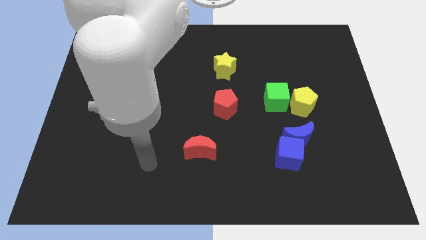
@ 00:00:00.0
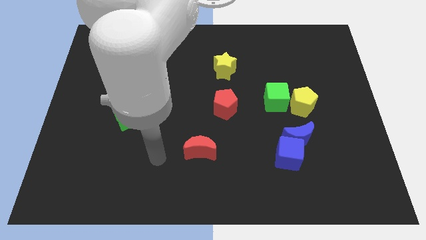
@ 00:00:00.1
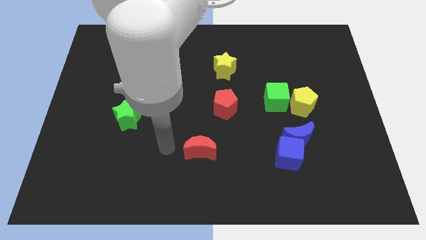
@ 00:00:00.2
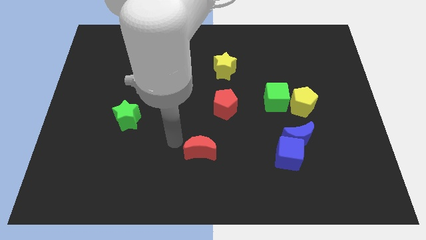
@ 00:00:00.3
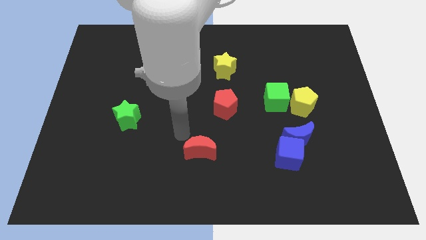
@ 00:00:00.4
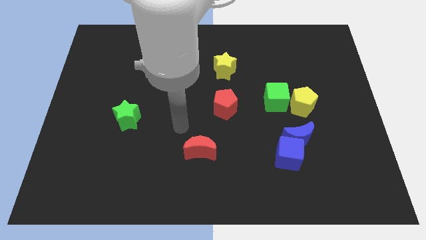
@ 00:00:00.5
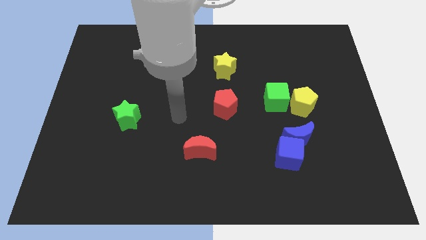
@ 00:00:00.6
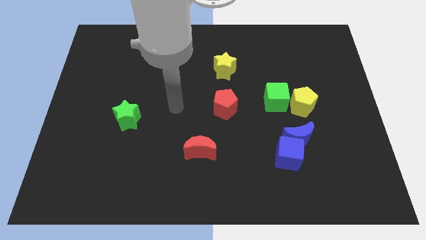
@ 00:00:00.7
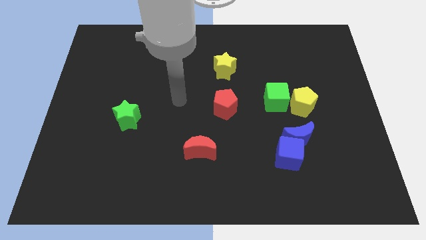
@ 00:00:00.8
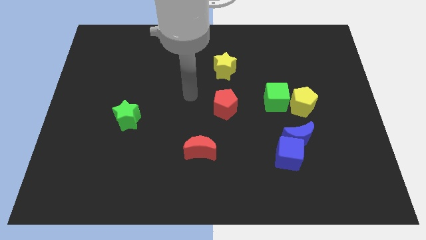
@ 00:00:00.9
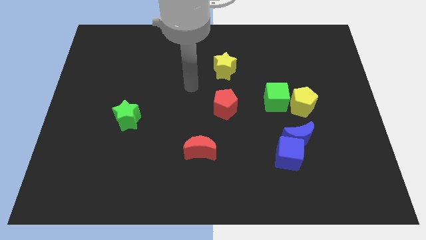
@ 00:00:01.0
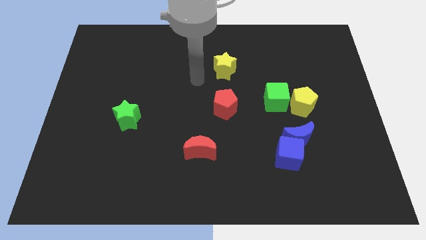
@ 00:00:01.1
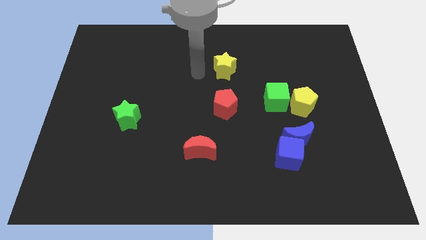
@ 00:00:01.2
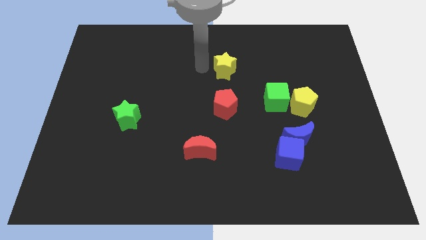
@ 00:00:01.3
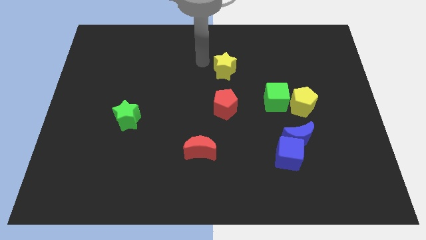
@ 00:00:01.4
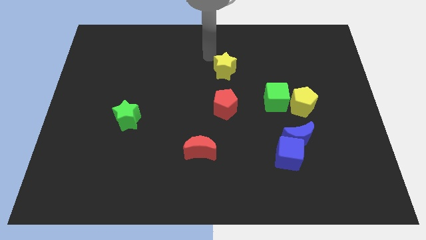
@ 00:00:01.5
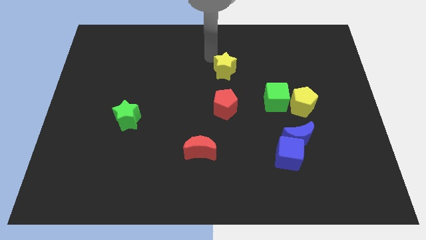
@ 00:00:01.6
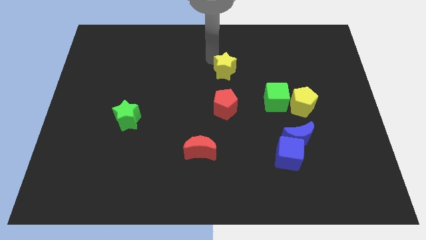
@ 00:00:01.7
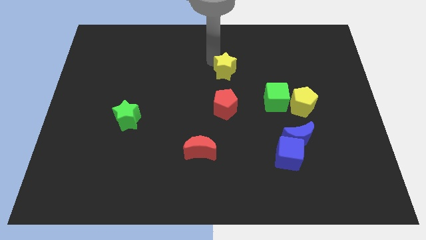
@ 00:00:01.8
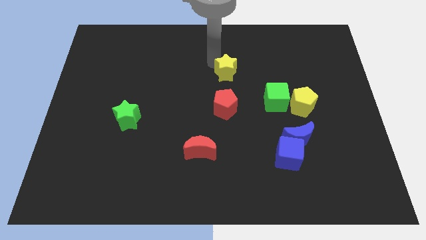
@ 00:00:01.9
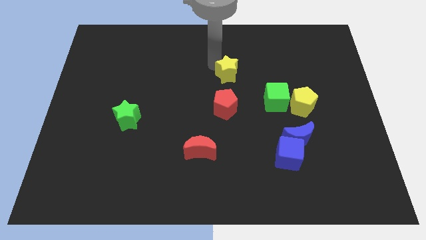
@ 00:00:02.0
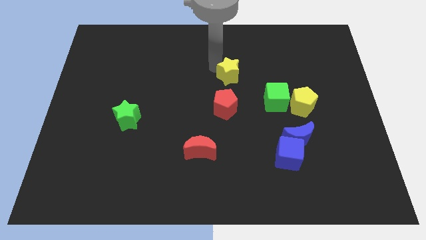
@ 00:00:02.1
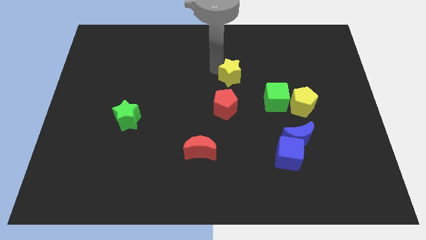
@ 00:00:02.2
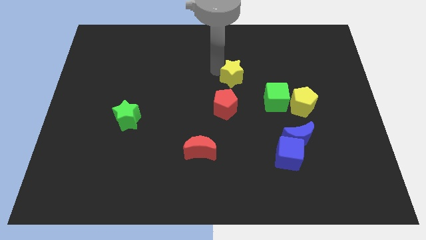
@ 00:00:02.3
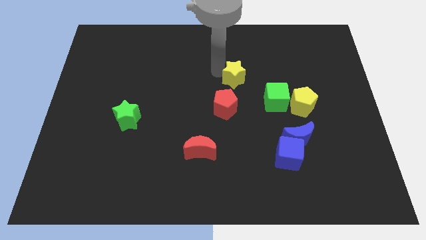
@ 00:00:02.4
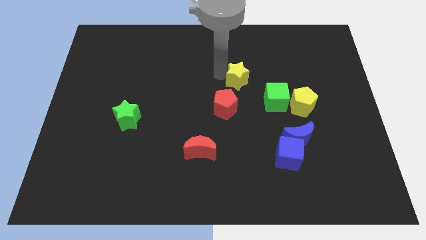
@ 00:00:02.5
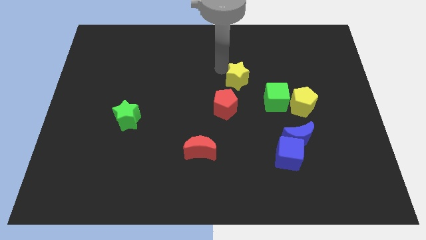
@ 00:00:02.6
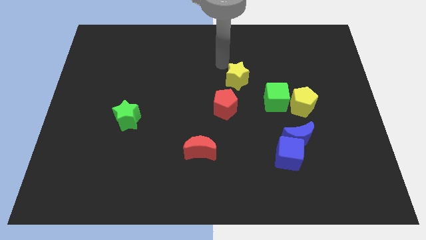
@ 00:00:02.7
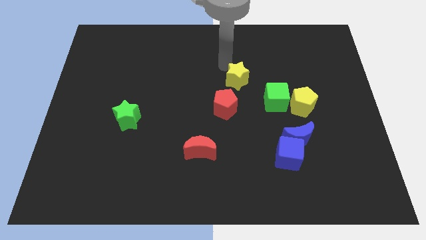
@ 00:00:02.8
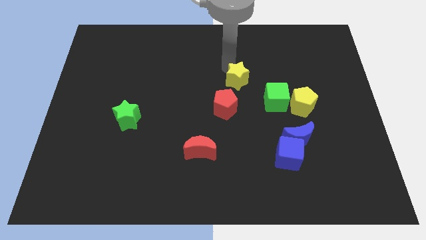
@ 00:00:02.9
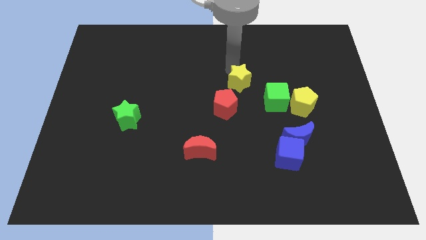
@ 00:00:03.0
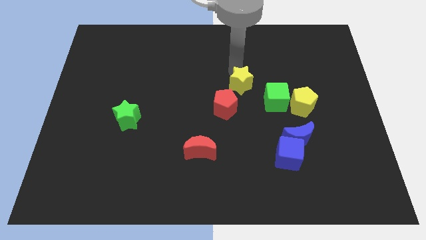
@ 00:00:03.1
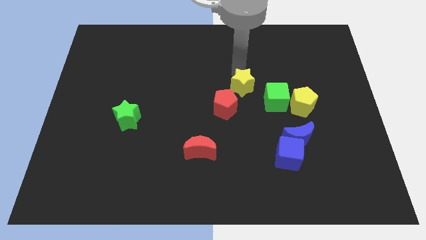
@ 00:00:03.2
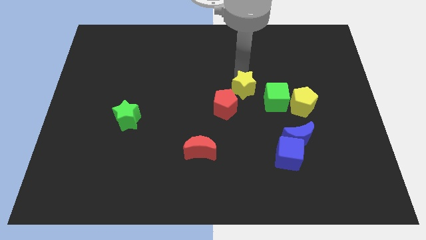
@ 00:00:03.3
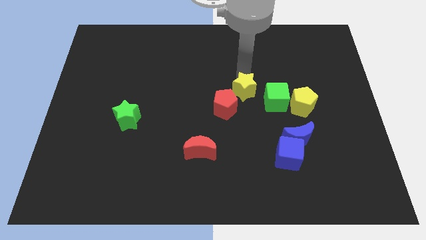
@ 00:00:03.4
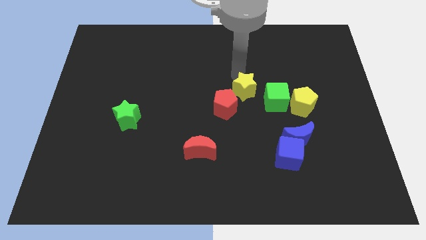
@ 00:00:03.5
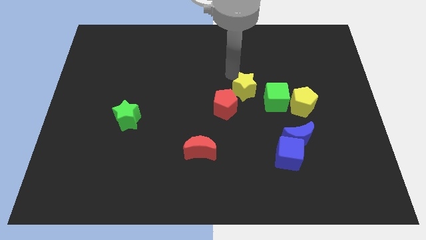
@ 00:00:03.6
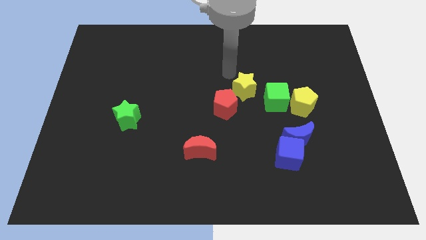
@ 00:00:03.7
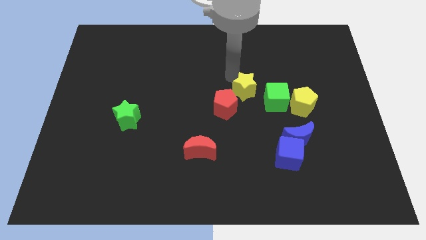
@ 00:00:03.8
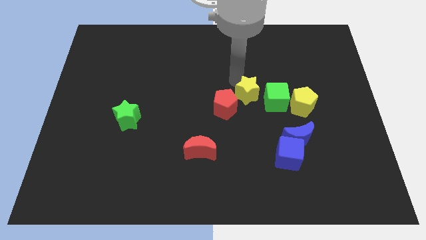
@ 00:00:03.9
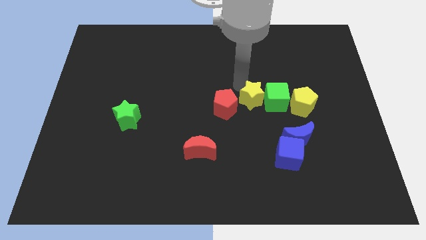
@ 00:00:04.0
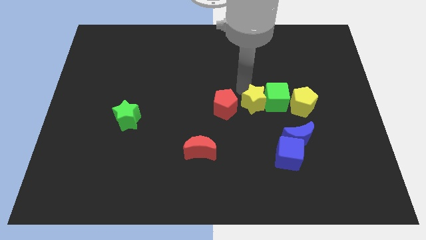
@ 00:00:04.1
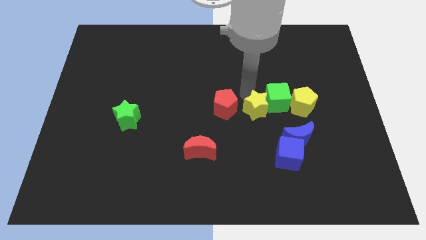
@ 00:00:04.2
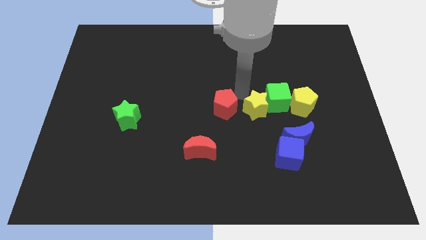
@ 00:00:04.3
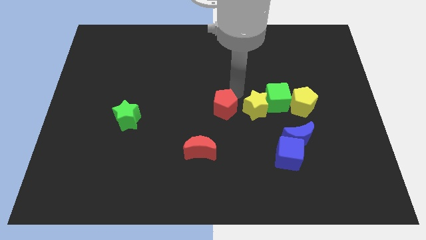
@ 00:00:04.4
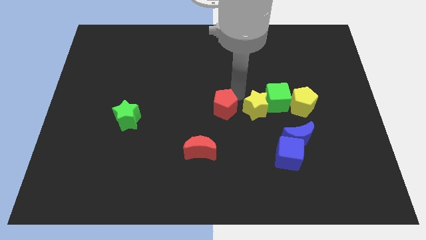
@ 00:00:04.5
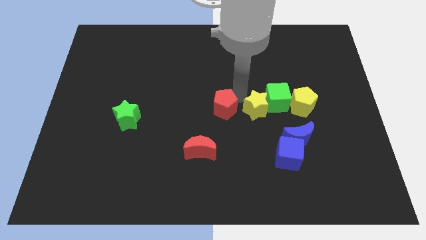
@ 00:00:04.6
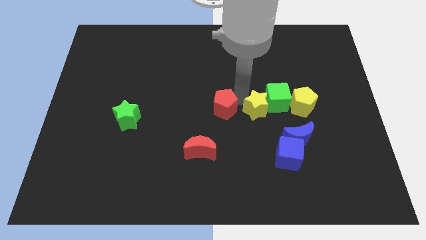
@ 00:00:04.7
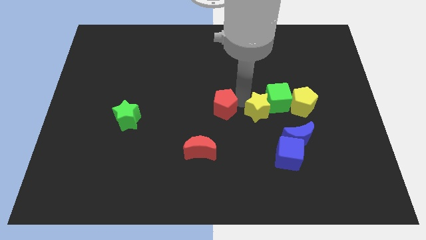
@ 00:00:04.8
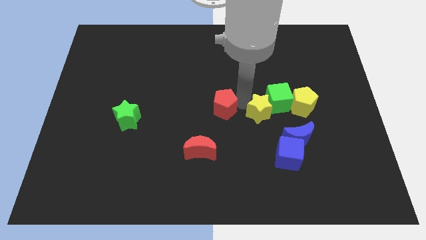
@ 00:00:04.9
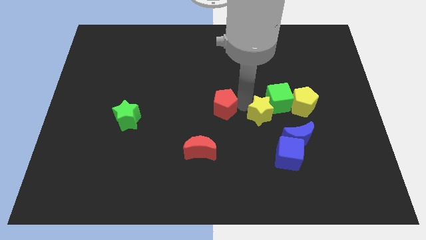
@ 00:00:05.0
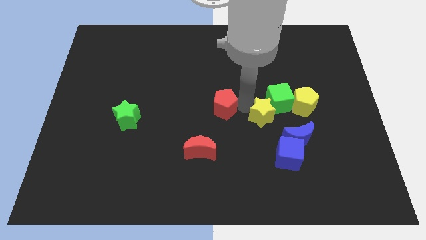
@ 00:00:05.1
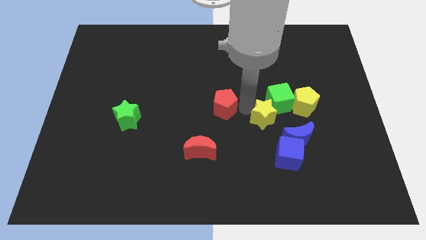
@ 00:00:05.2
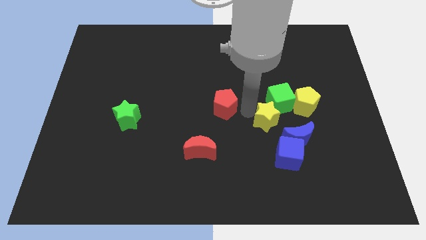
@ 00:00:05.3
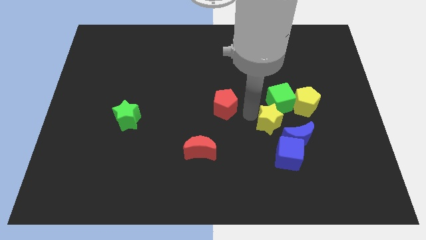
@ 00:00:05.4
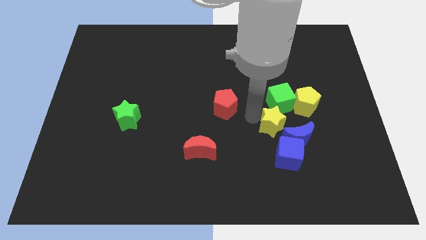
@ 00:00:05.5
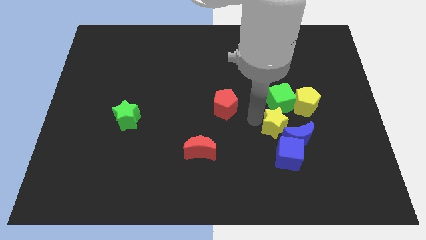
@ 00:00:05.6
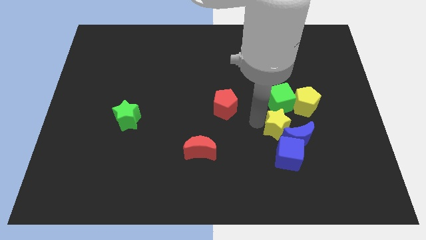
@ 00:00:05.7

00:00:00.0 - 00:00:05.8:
push the yellow star towards the blue moon

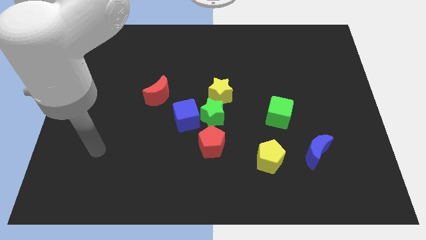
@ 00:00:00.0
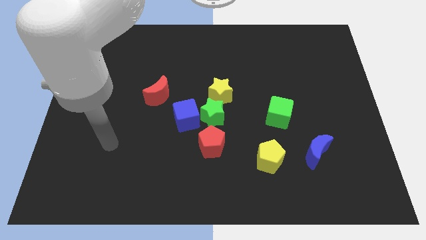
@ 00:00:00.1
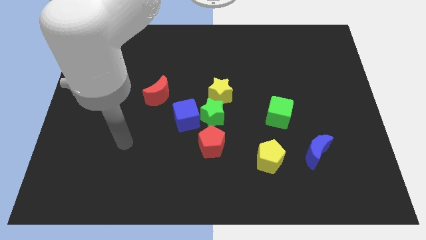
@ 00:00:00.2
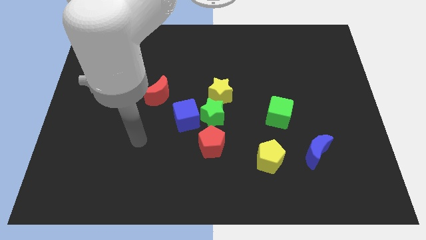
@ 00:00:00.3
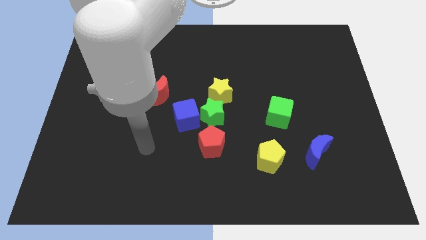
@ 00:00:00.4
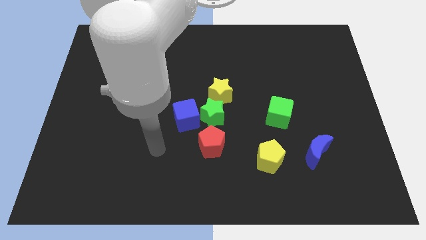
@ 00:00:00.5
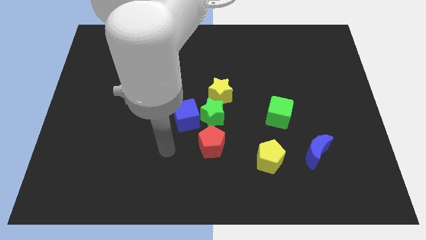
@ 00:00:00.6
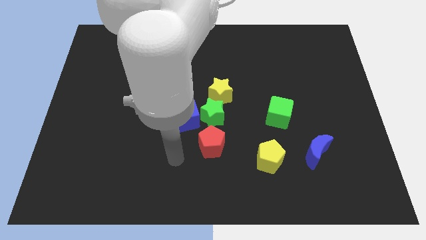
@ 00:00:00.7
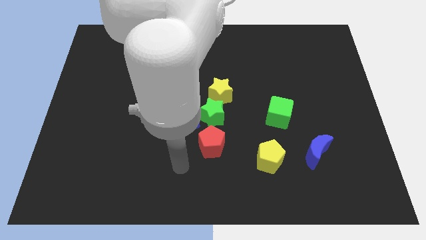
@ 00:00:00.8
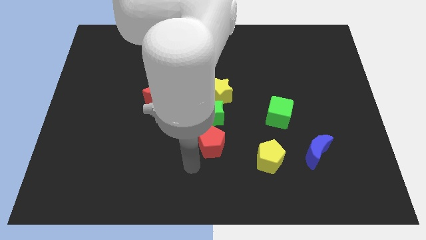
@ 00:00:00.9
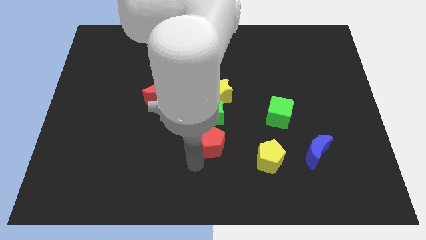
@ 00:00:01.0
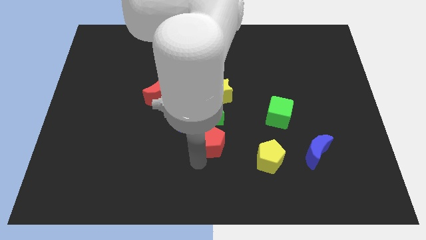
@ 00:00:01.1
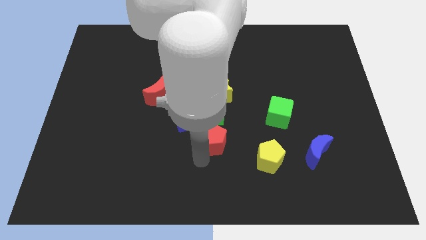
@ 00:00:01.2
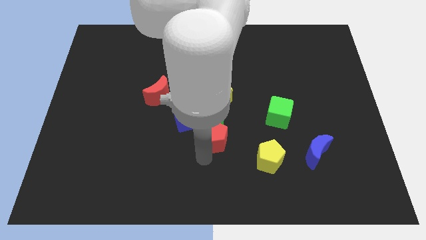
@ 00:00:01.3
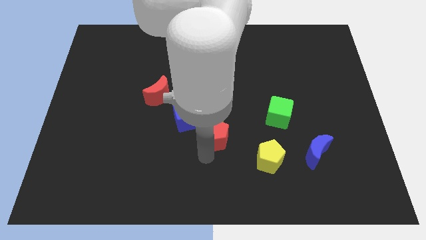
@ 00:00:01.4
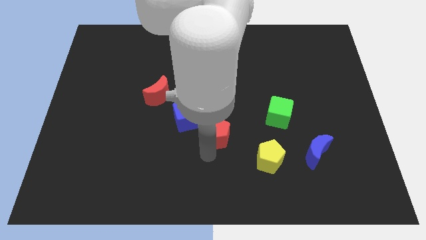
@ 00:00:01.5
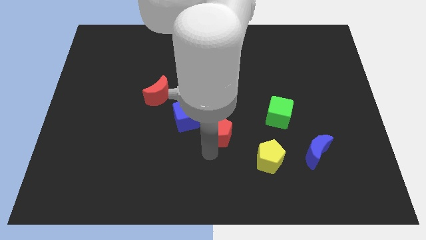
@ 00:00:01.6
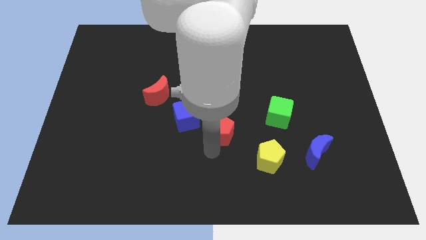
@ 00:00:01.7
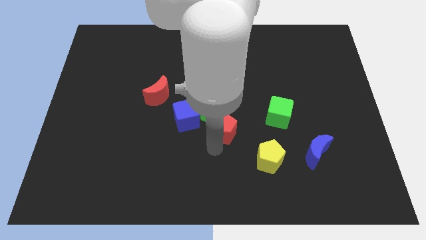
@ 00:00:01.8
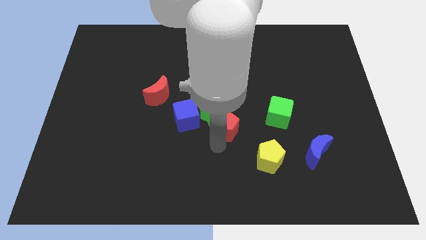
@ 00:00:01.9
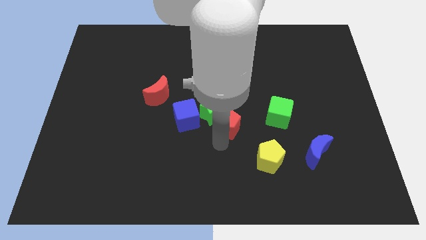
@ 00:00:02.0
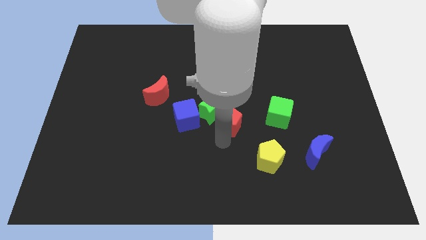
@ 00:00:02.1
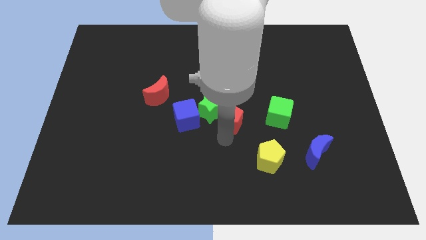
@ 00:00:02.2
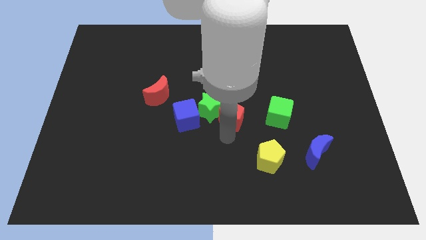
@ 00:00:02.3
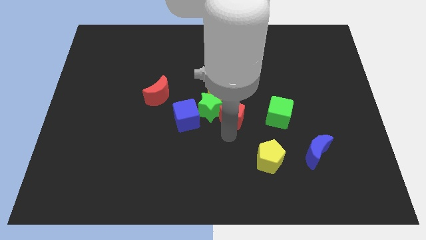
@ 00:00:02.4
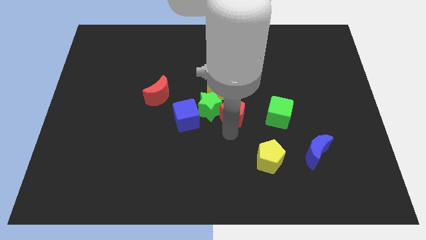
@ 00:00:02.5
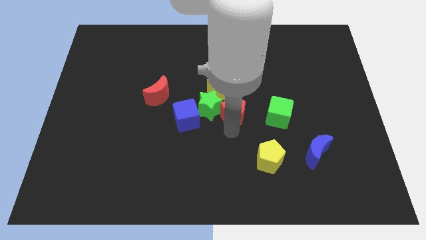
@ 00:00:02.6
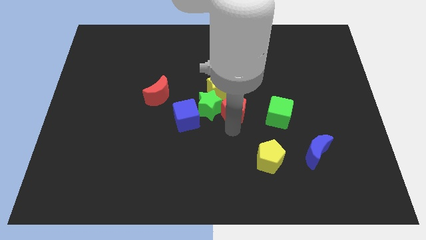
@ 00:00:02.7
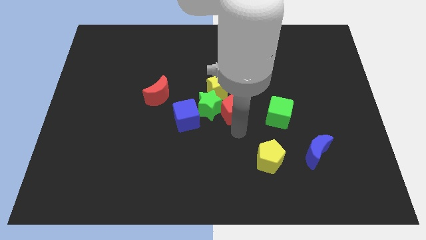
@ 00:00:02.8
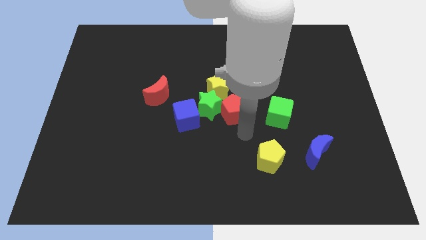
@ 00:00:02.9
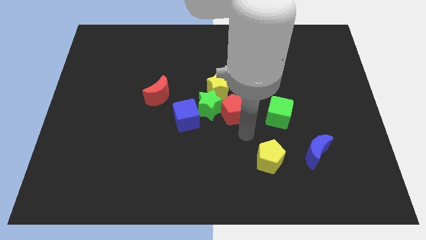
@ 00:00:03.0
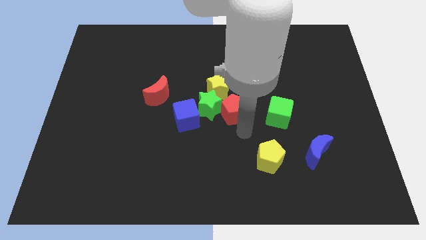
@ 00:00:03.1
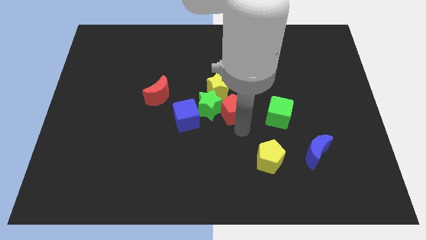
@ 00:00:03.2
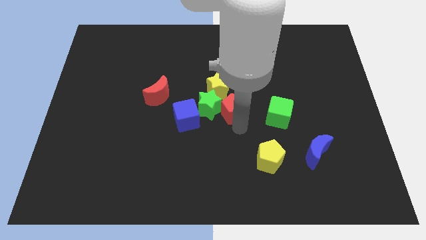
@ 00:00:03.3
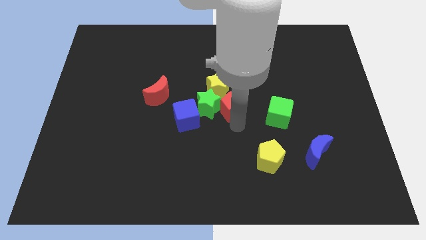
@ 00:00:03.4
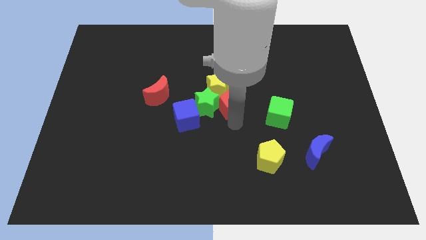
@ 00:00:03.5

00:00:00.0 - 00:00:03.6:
put the red pentagon towards the yellow star
